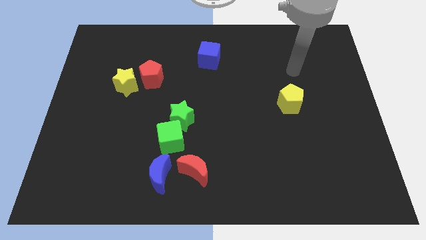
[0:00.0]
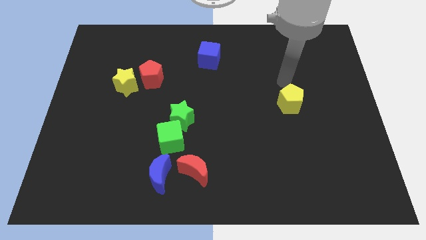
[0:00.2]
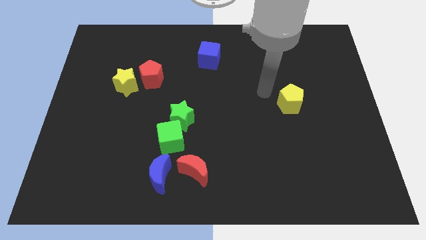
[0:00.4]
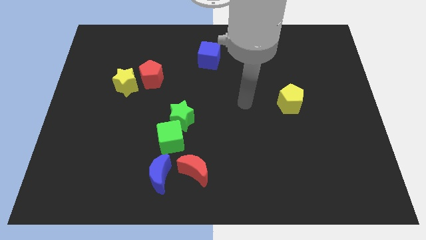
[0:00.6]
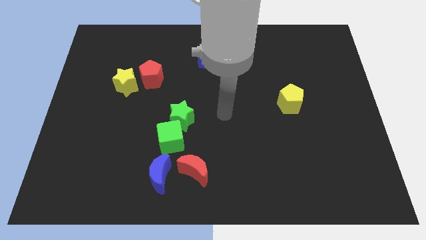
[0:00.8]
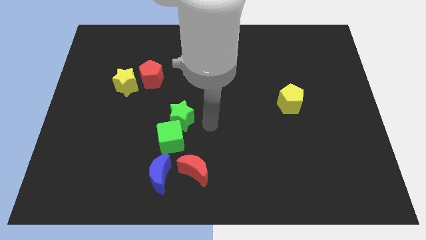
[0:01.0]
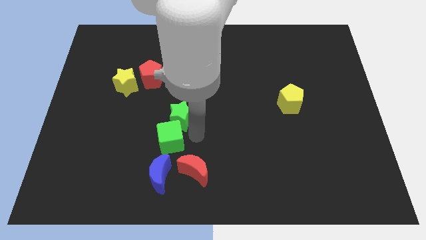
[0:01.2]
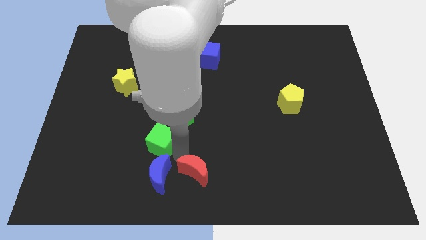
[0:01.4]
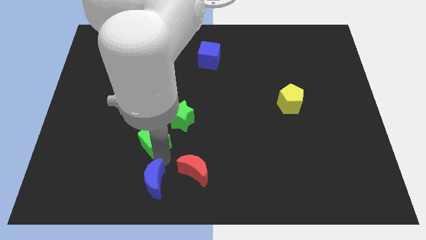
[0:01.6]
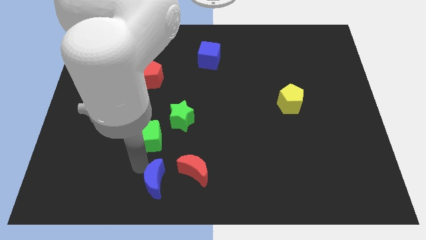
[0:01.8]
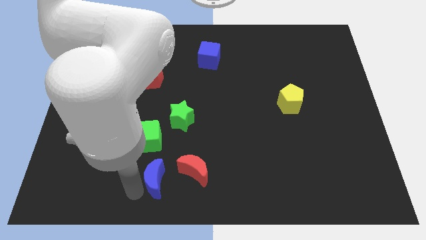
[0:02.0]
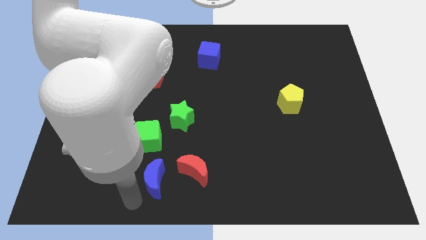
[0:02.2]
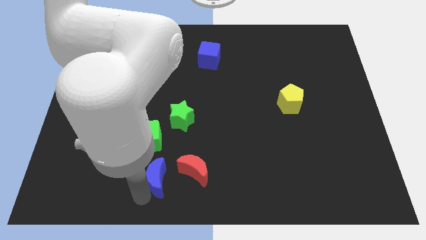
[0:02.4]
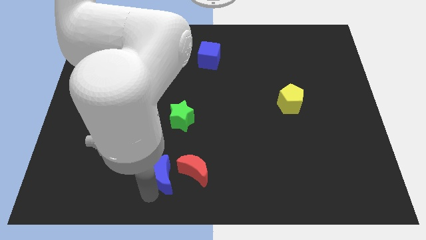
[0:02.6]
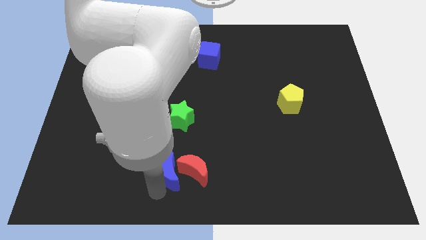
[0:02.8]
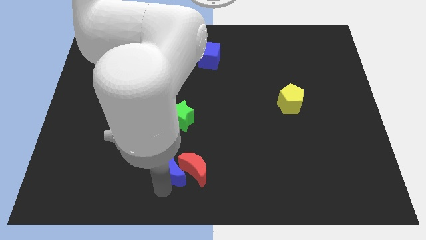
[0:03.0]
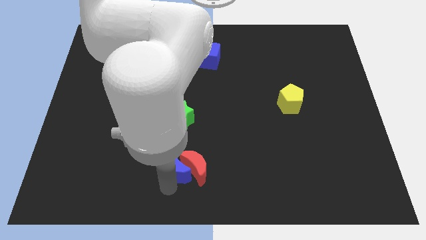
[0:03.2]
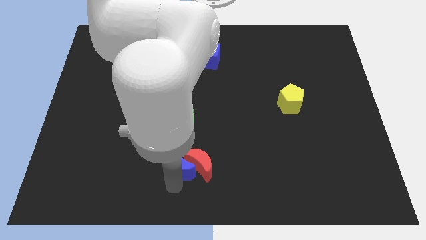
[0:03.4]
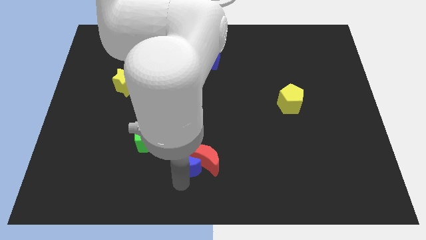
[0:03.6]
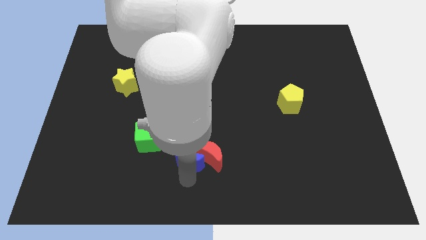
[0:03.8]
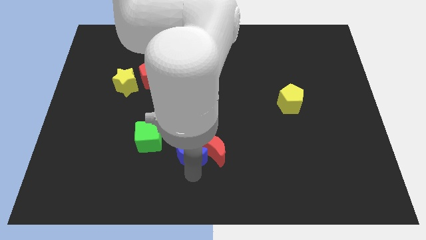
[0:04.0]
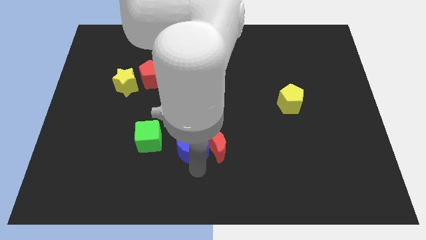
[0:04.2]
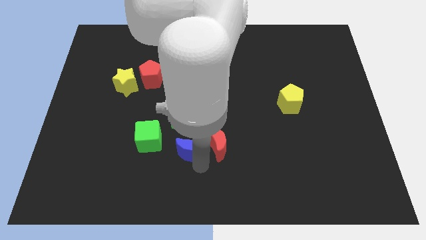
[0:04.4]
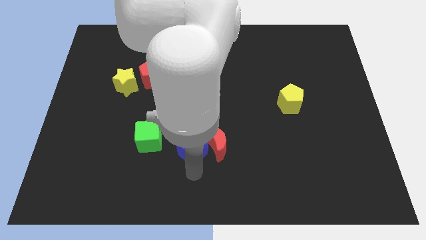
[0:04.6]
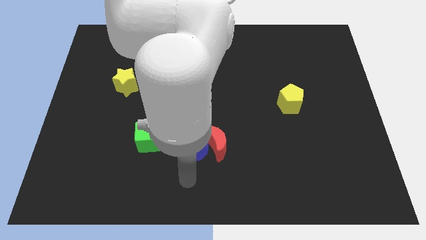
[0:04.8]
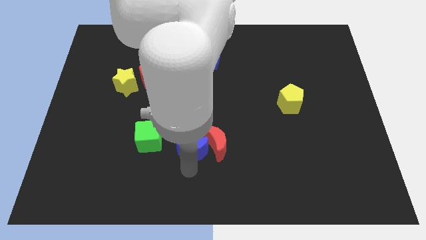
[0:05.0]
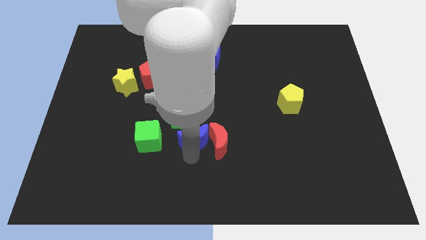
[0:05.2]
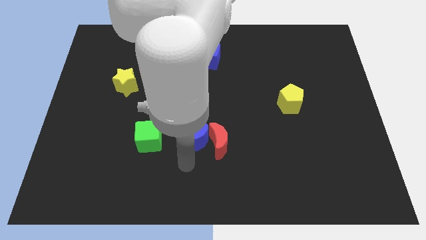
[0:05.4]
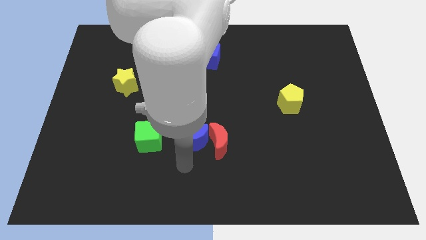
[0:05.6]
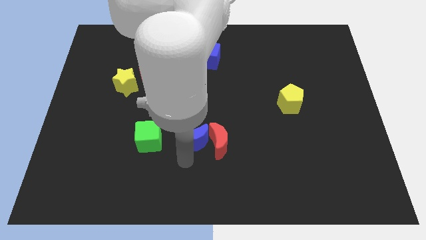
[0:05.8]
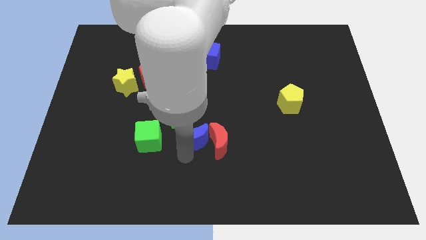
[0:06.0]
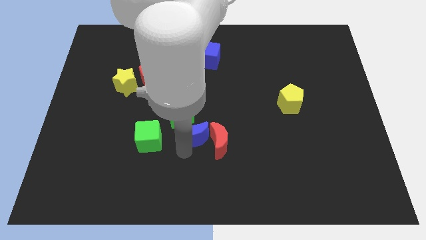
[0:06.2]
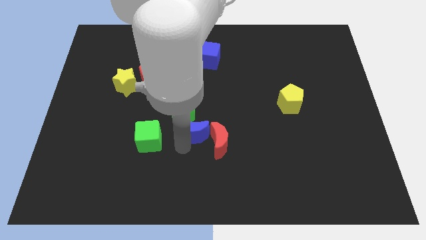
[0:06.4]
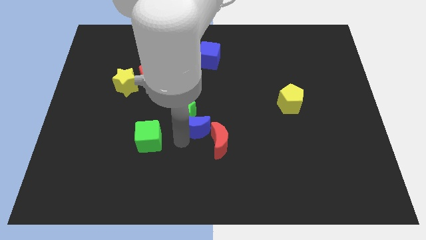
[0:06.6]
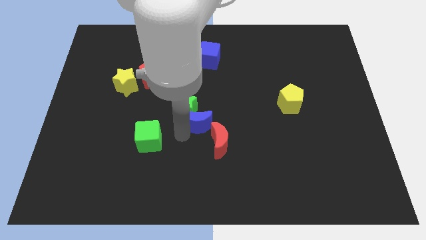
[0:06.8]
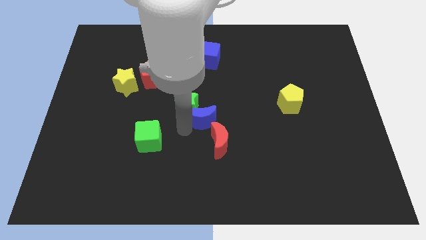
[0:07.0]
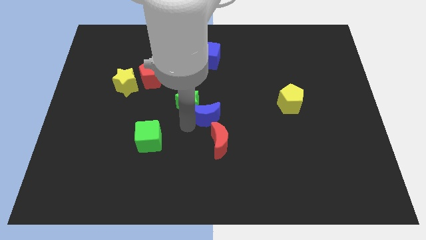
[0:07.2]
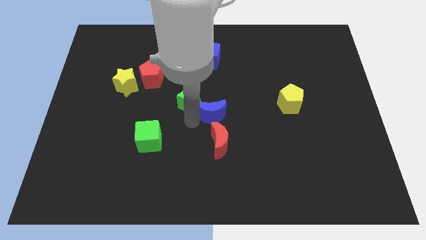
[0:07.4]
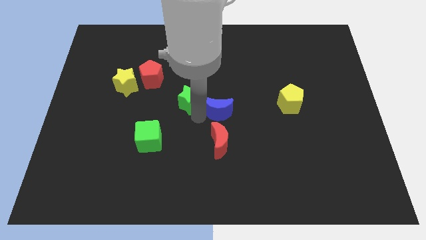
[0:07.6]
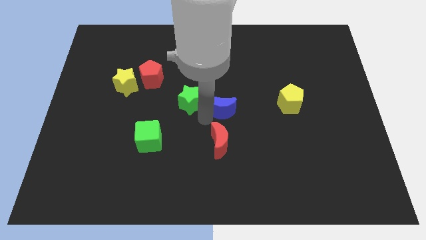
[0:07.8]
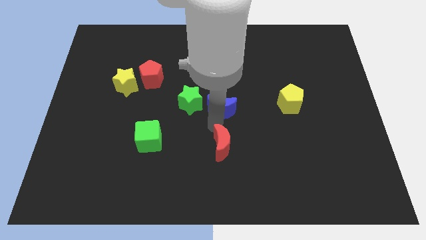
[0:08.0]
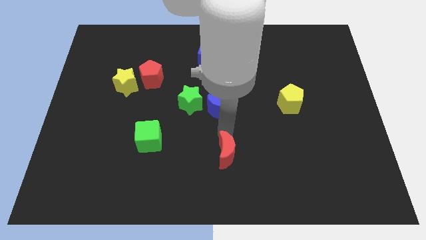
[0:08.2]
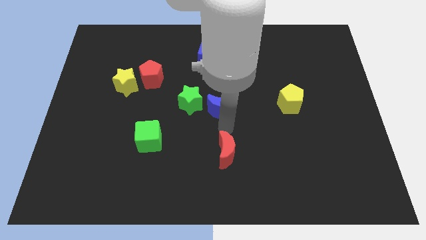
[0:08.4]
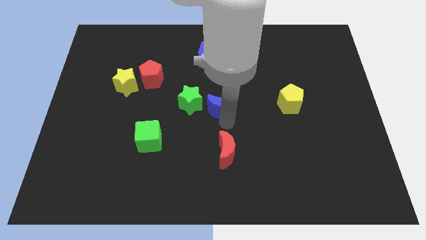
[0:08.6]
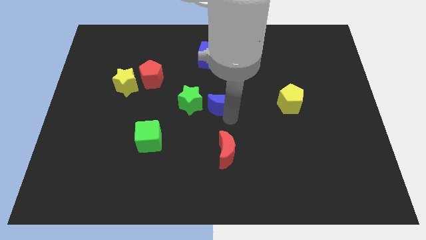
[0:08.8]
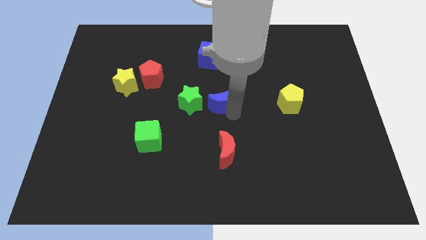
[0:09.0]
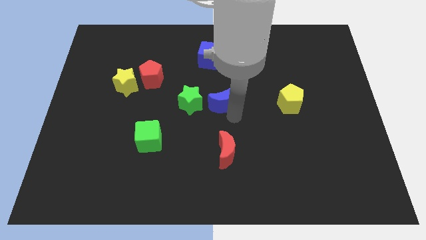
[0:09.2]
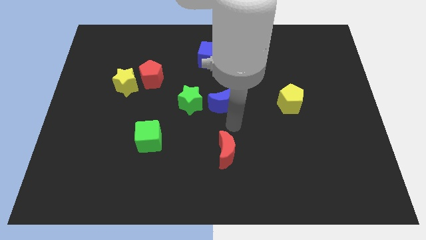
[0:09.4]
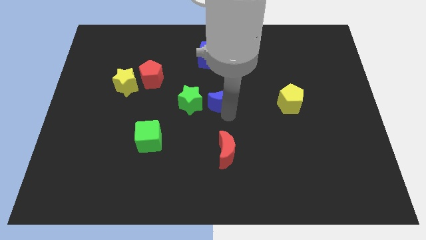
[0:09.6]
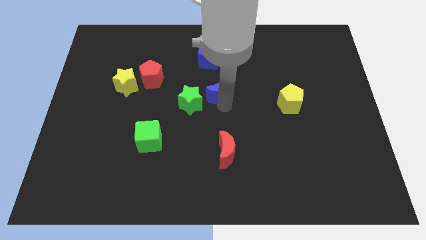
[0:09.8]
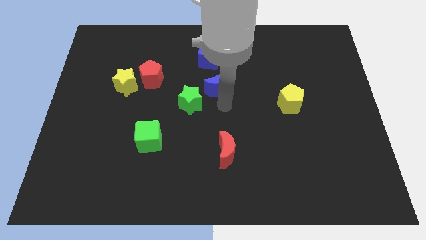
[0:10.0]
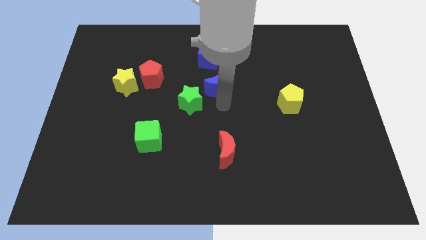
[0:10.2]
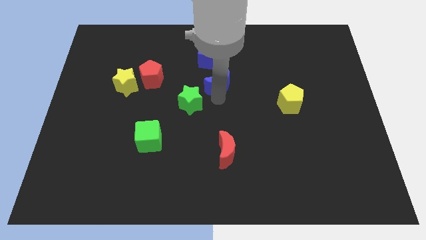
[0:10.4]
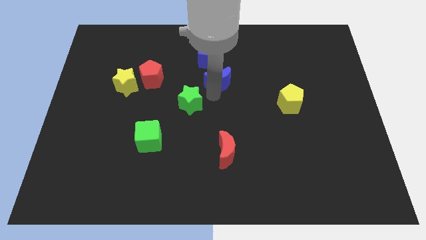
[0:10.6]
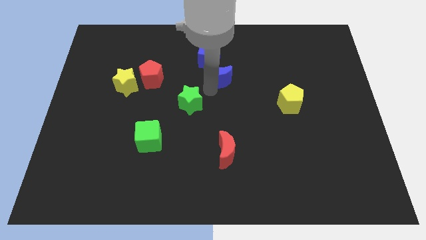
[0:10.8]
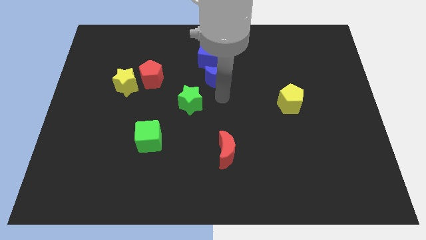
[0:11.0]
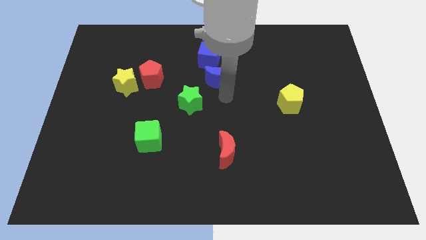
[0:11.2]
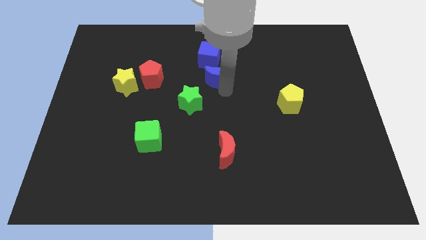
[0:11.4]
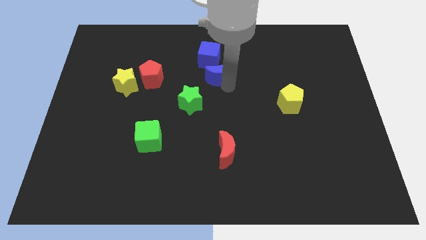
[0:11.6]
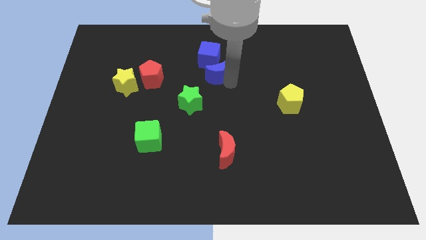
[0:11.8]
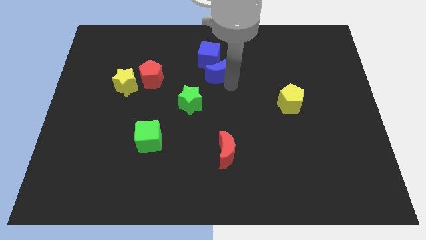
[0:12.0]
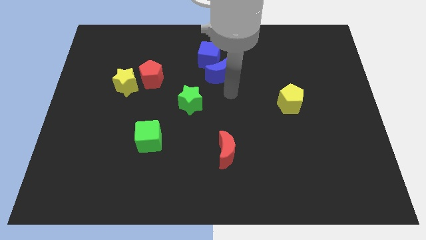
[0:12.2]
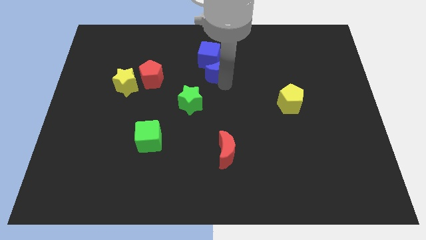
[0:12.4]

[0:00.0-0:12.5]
move the blue moon to the blue cube

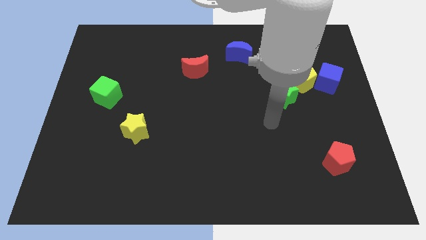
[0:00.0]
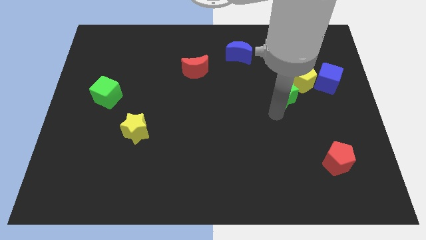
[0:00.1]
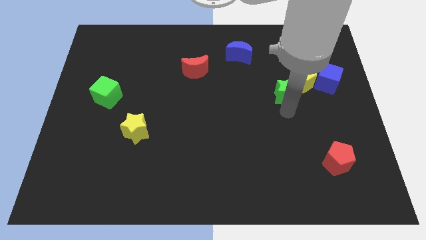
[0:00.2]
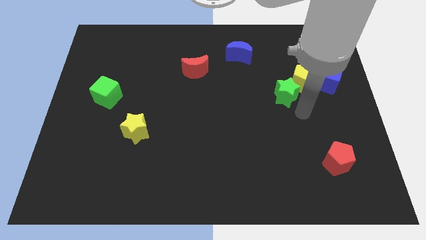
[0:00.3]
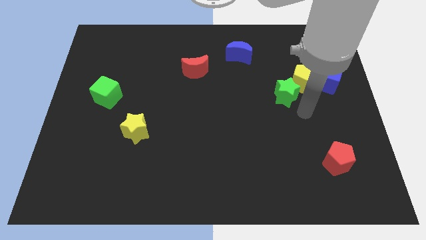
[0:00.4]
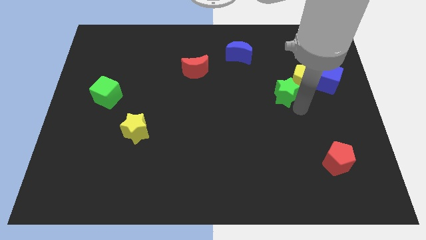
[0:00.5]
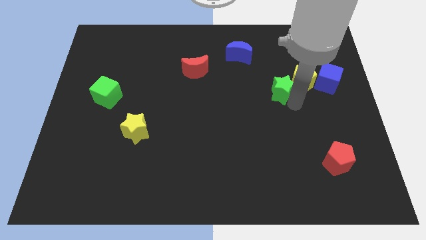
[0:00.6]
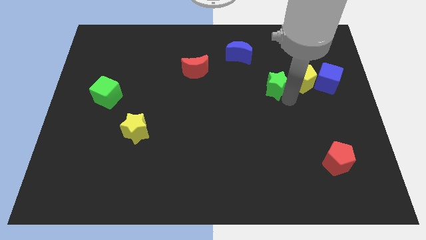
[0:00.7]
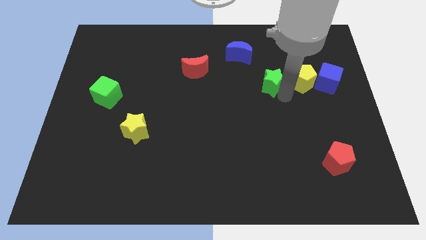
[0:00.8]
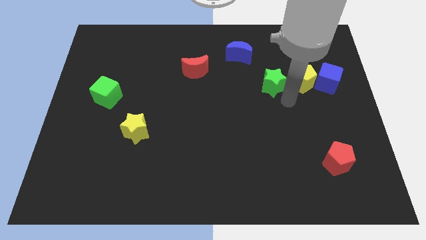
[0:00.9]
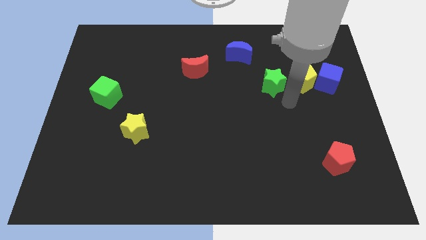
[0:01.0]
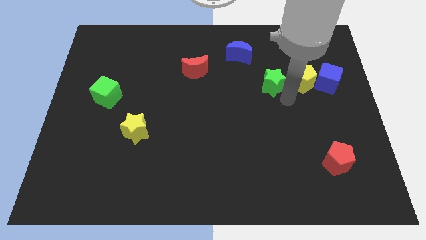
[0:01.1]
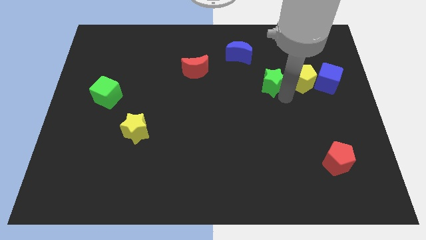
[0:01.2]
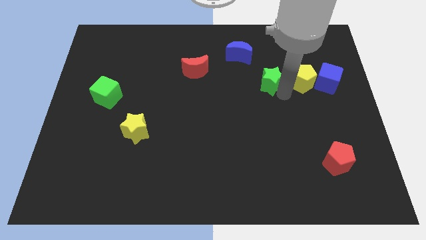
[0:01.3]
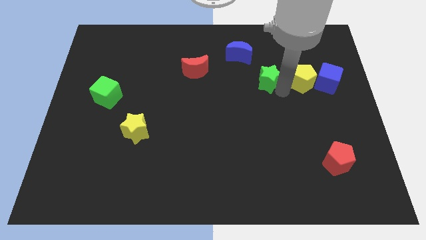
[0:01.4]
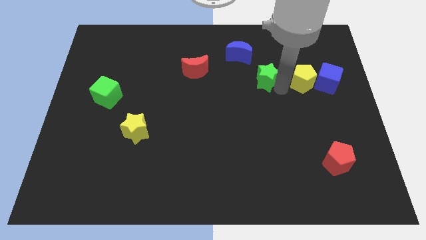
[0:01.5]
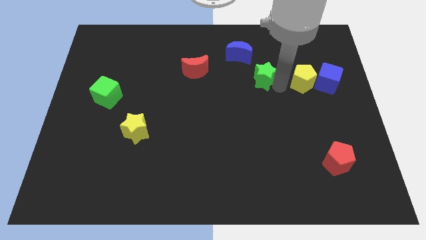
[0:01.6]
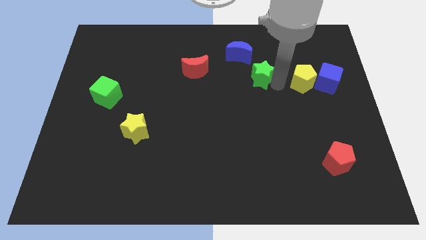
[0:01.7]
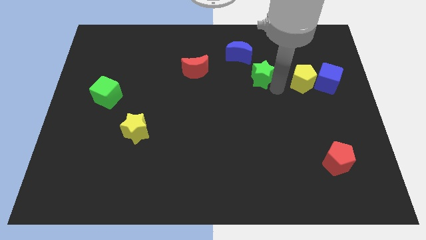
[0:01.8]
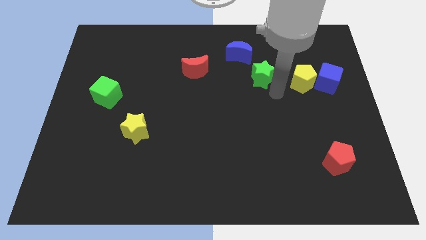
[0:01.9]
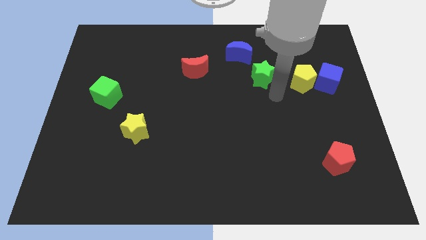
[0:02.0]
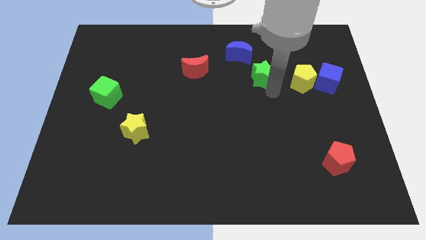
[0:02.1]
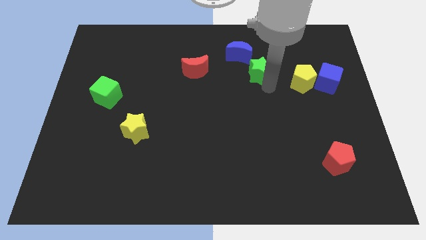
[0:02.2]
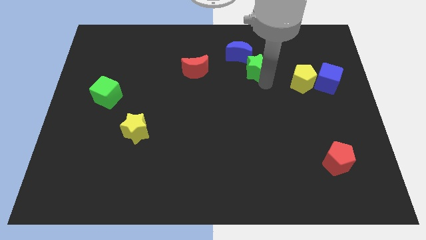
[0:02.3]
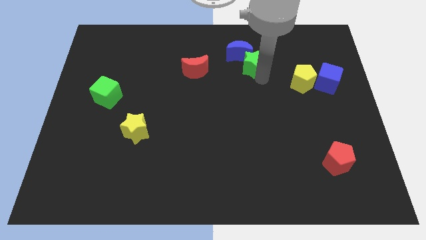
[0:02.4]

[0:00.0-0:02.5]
slide the green star to the blue moon
